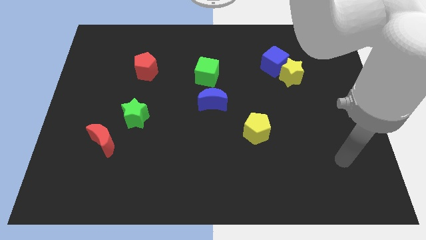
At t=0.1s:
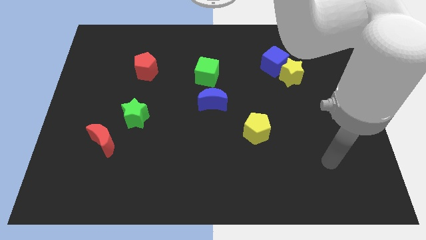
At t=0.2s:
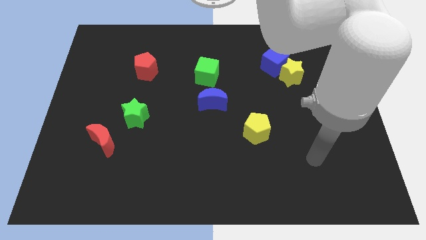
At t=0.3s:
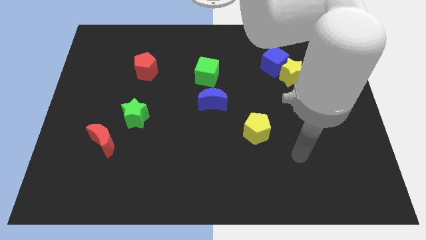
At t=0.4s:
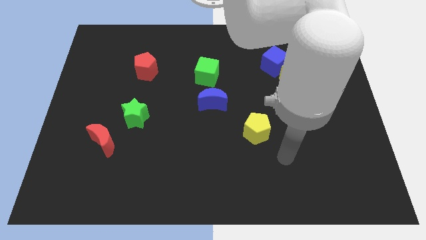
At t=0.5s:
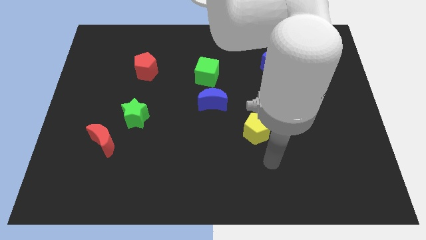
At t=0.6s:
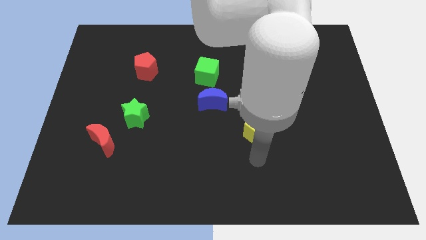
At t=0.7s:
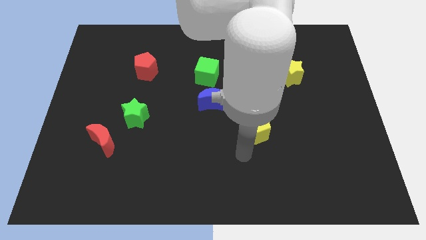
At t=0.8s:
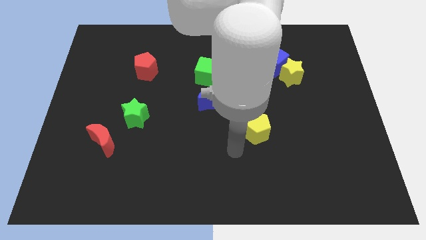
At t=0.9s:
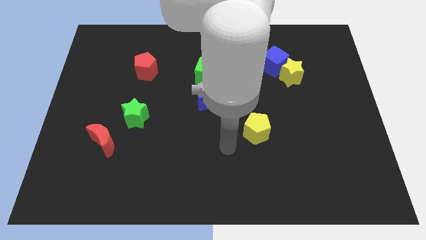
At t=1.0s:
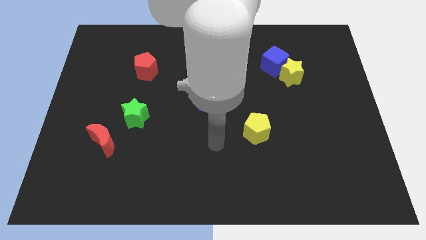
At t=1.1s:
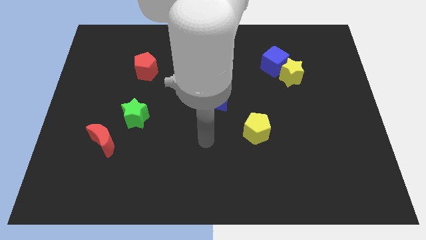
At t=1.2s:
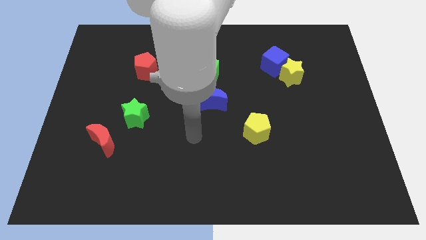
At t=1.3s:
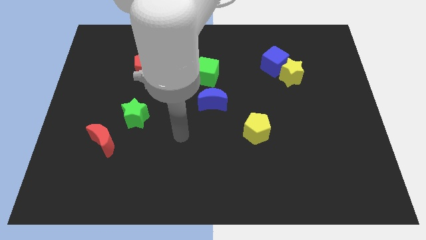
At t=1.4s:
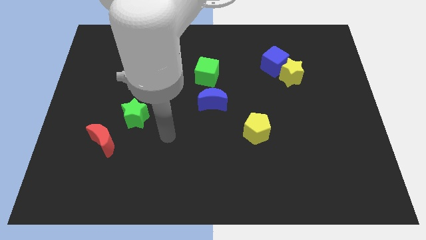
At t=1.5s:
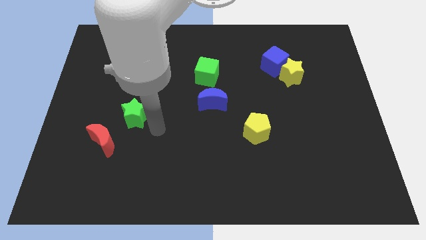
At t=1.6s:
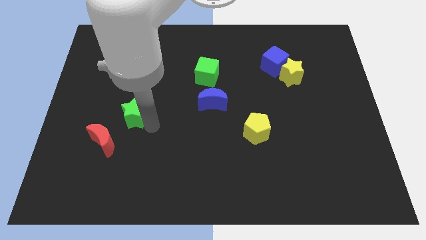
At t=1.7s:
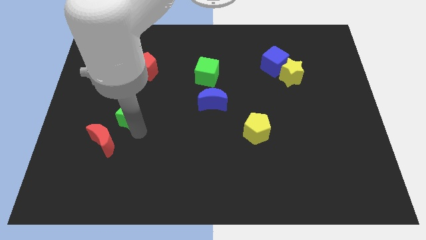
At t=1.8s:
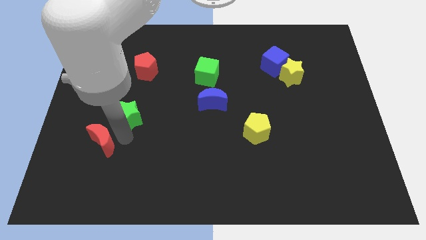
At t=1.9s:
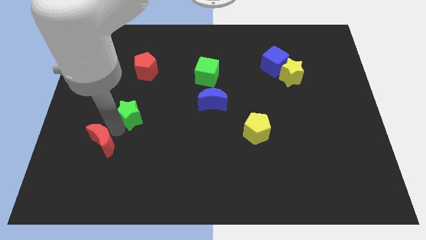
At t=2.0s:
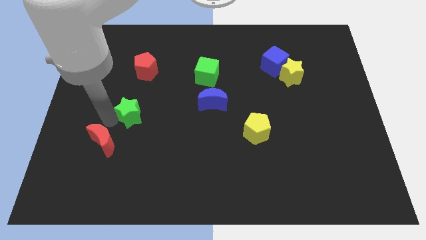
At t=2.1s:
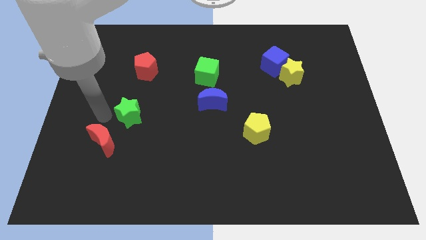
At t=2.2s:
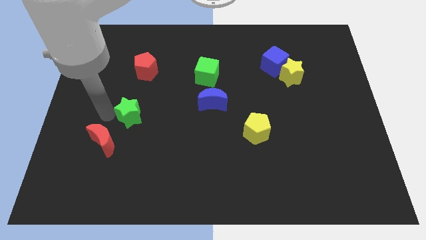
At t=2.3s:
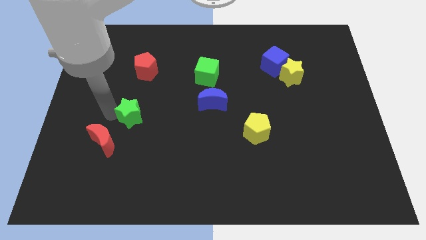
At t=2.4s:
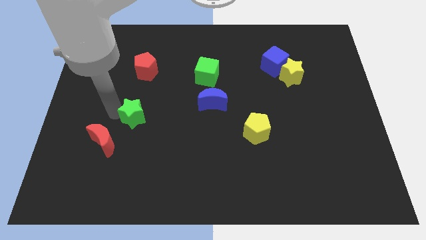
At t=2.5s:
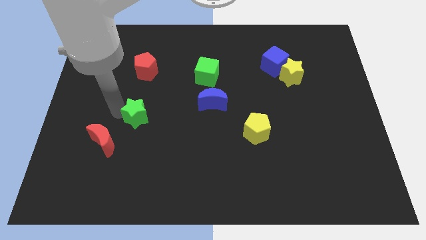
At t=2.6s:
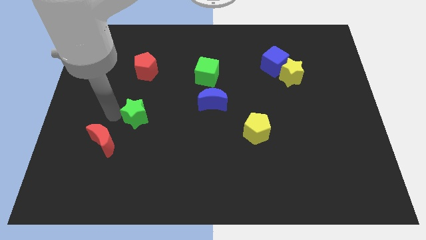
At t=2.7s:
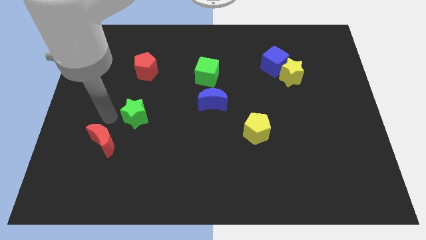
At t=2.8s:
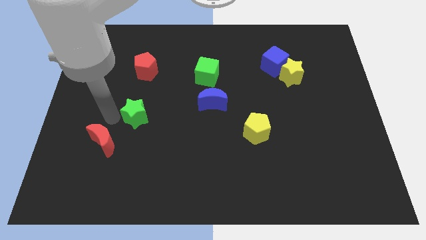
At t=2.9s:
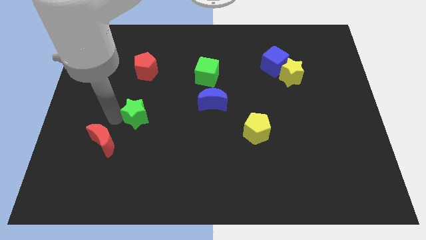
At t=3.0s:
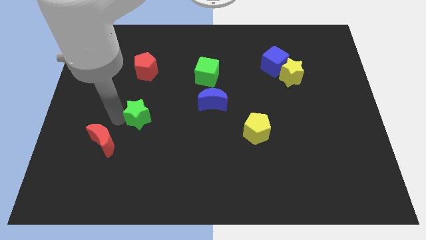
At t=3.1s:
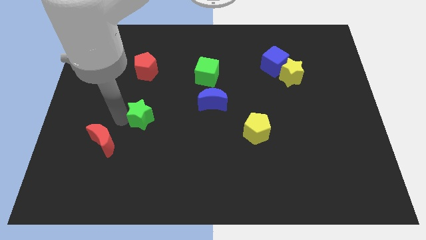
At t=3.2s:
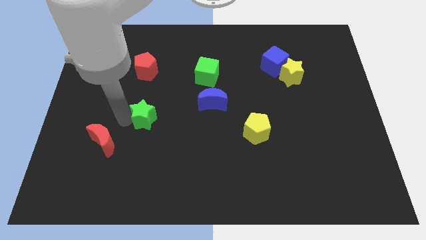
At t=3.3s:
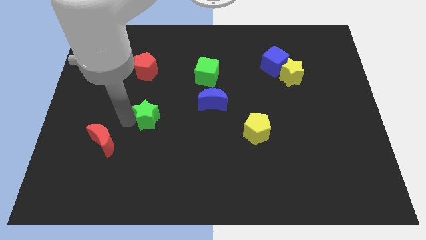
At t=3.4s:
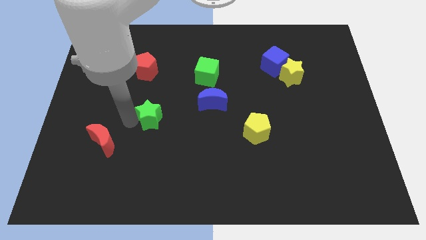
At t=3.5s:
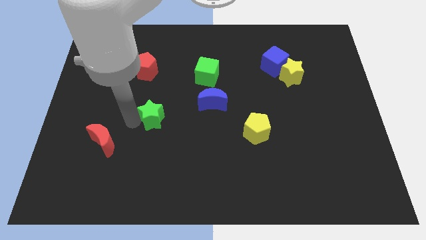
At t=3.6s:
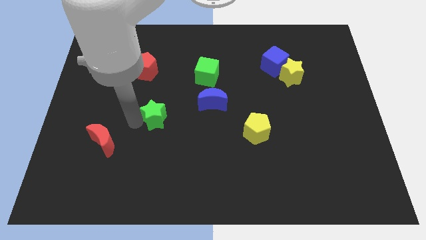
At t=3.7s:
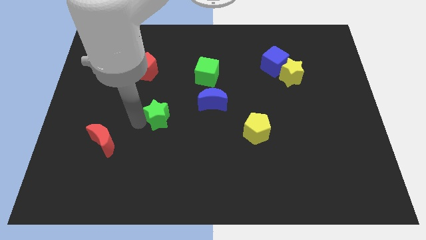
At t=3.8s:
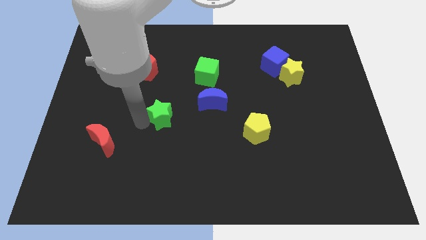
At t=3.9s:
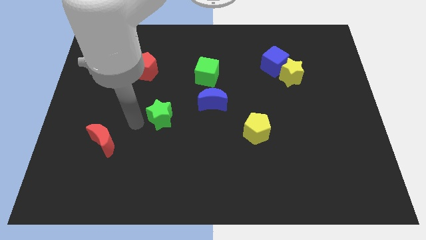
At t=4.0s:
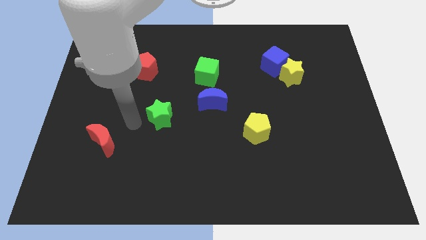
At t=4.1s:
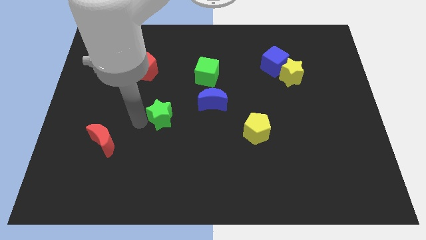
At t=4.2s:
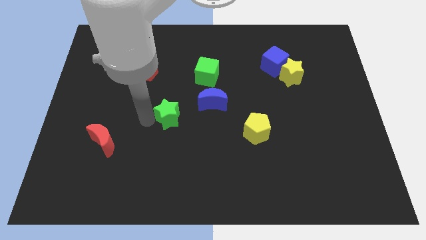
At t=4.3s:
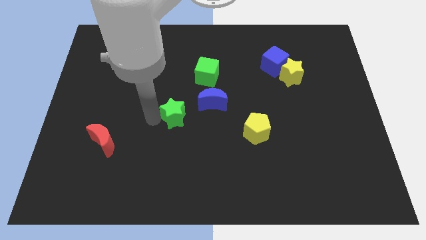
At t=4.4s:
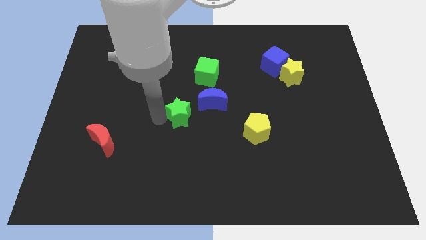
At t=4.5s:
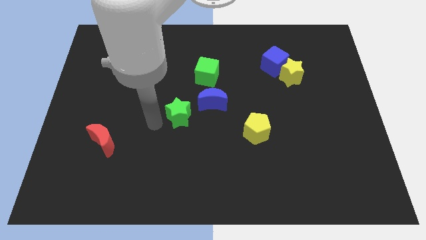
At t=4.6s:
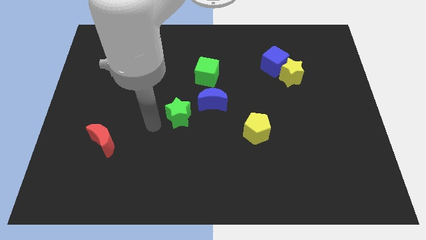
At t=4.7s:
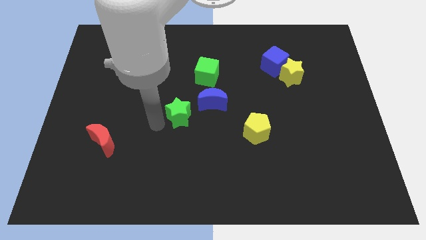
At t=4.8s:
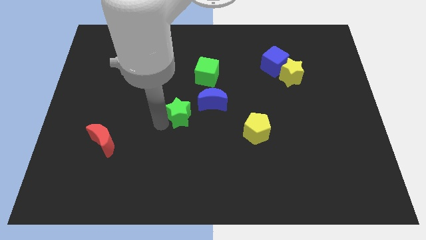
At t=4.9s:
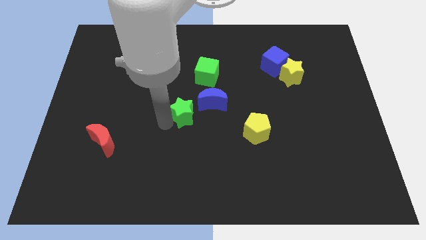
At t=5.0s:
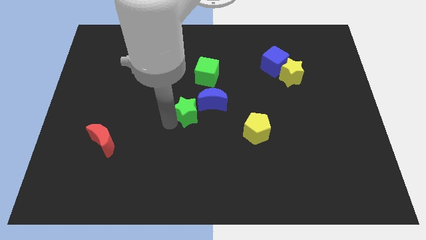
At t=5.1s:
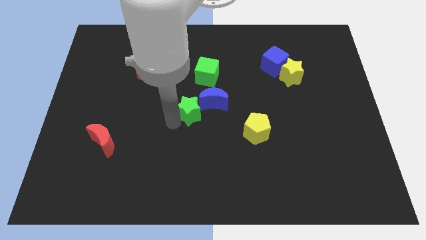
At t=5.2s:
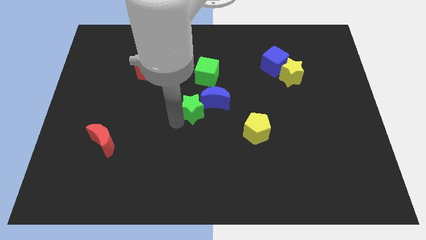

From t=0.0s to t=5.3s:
slide the green star towards the blue moon

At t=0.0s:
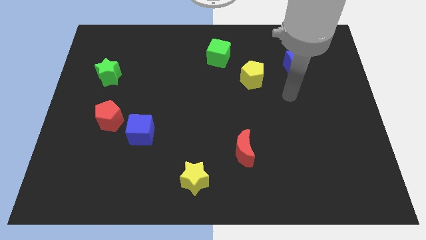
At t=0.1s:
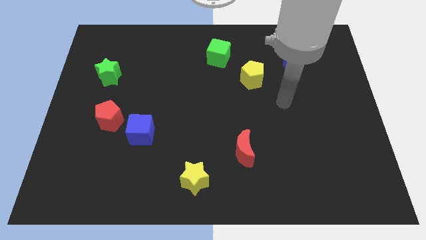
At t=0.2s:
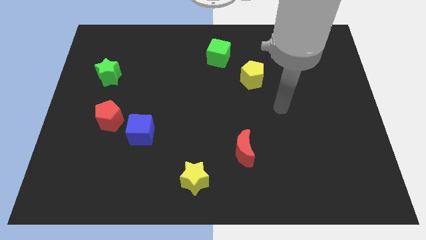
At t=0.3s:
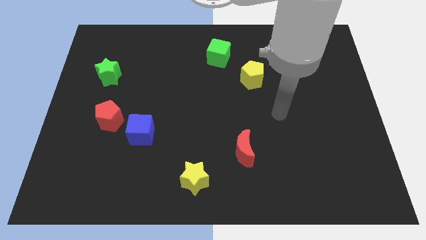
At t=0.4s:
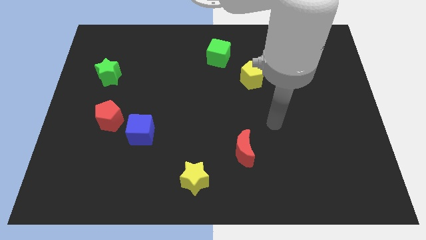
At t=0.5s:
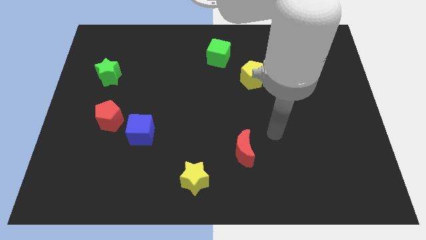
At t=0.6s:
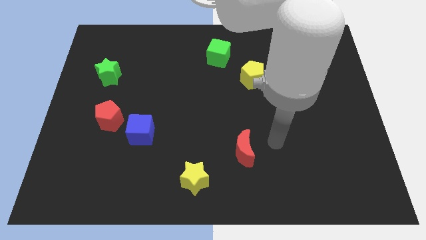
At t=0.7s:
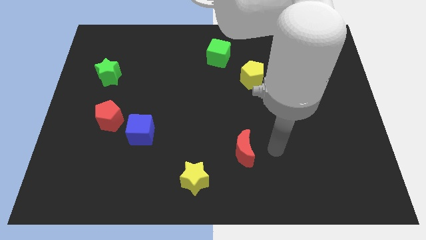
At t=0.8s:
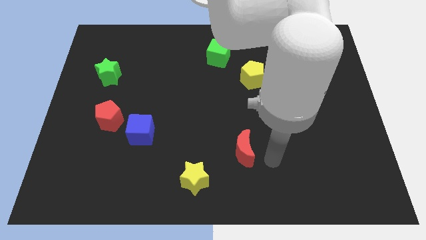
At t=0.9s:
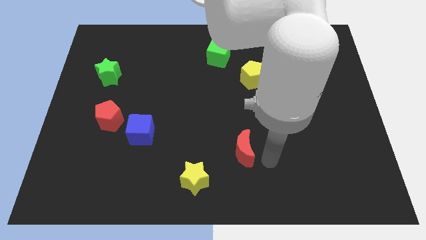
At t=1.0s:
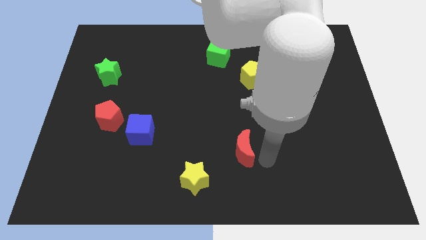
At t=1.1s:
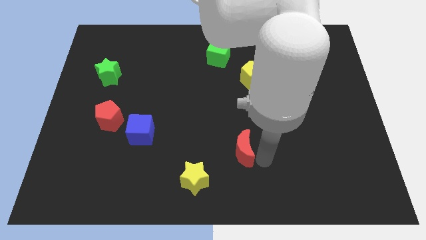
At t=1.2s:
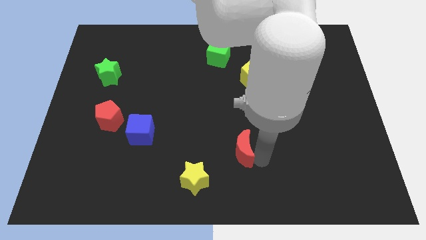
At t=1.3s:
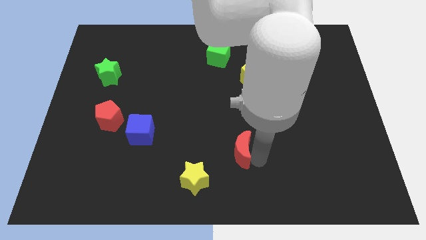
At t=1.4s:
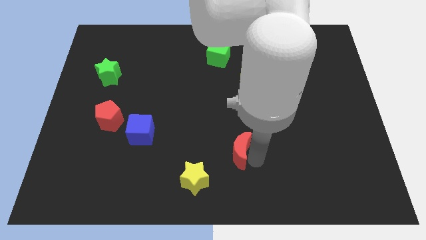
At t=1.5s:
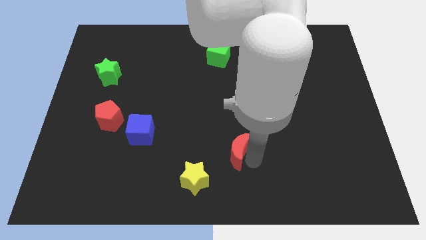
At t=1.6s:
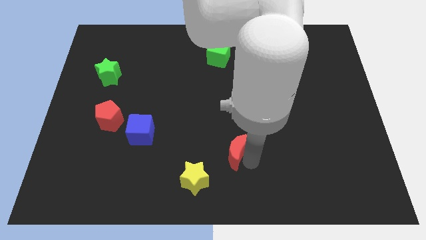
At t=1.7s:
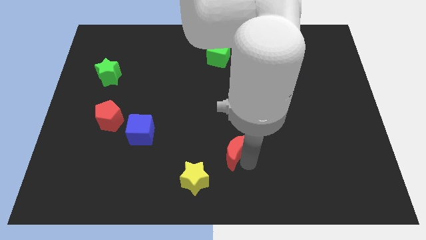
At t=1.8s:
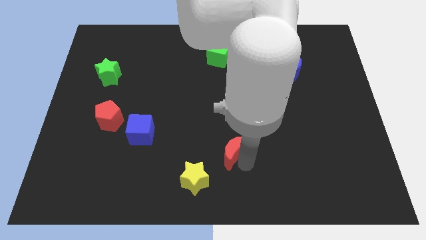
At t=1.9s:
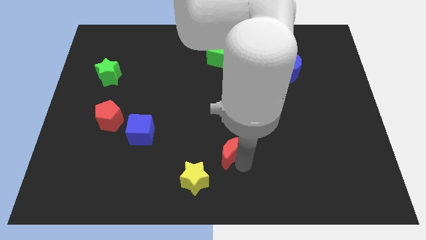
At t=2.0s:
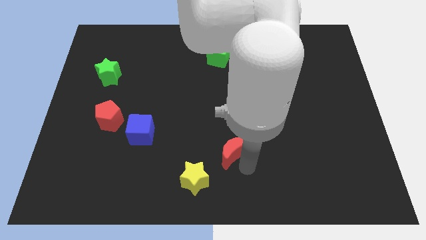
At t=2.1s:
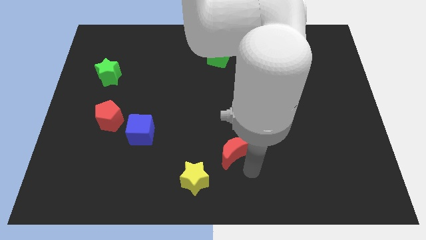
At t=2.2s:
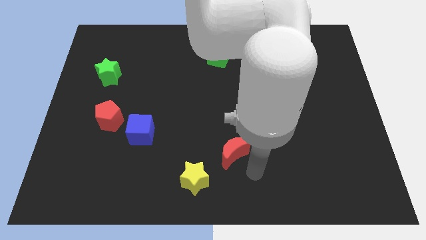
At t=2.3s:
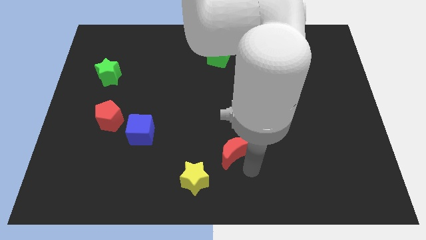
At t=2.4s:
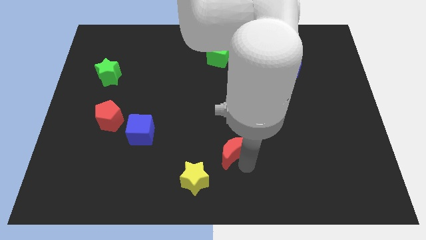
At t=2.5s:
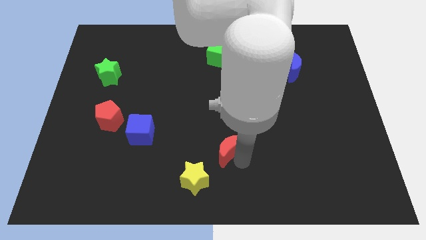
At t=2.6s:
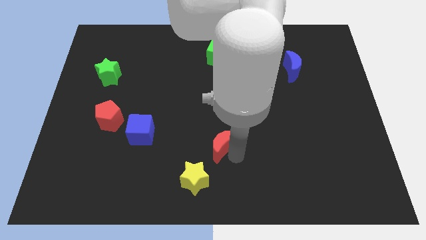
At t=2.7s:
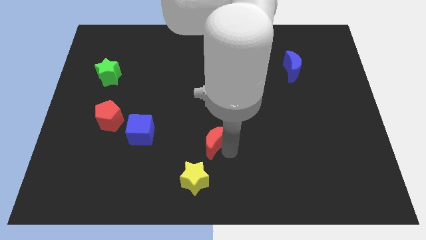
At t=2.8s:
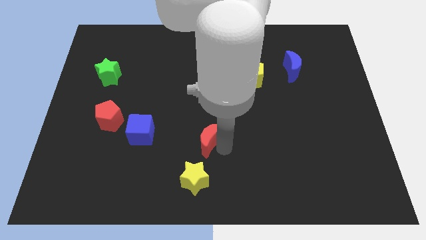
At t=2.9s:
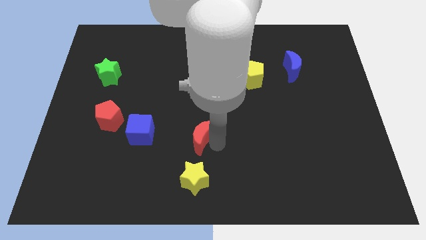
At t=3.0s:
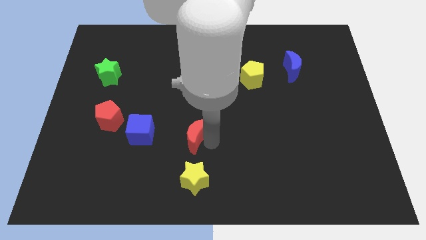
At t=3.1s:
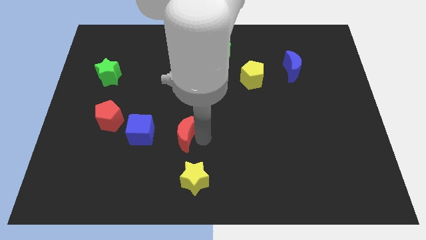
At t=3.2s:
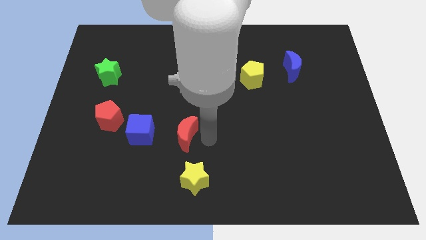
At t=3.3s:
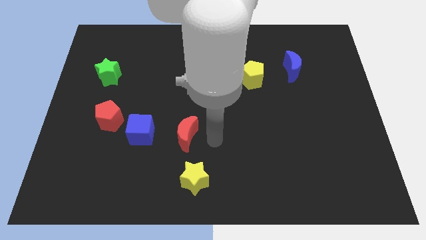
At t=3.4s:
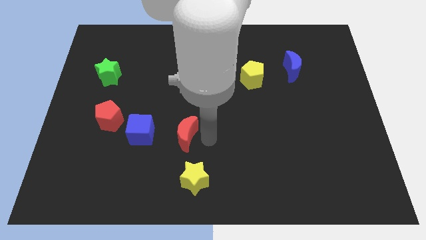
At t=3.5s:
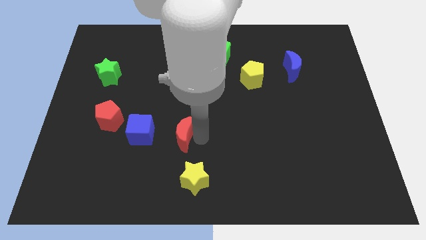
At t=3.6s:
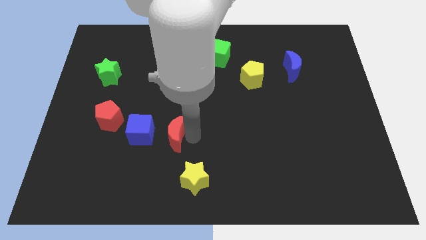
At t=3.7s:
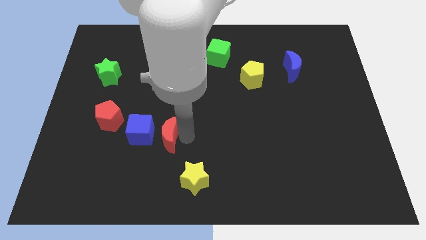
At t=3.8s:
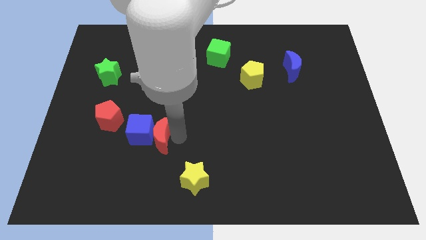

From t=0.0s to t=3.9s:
slide the red moon to the blue cube
